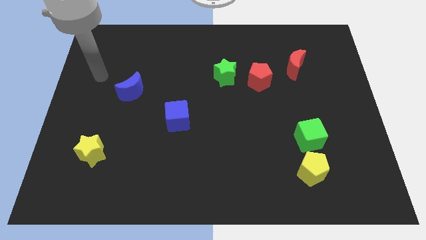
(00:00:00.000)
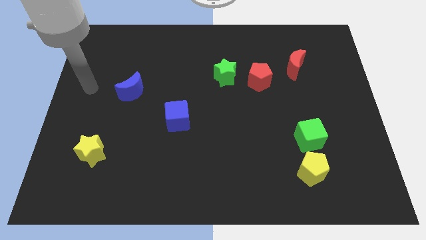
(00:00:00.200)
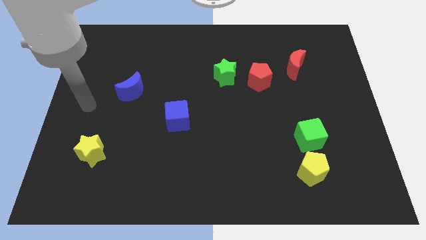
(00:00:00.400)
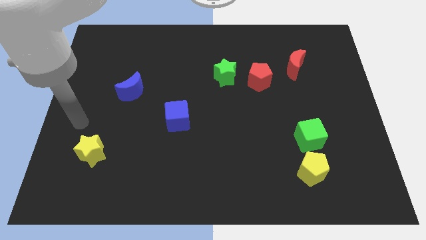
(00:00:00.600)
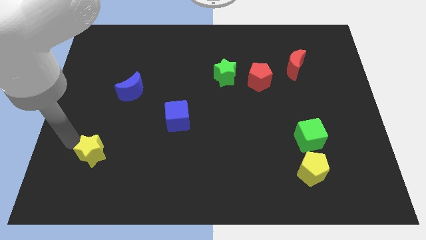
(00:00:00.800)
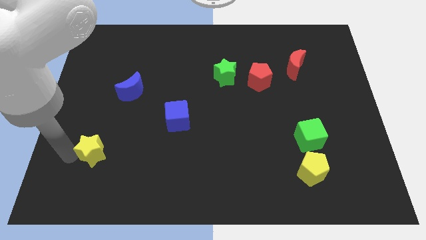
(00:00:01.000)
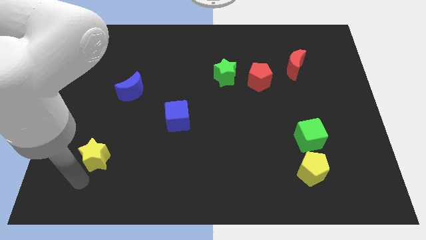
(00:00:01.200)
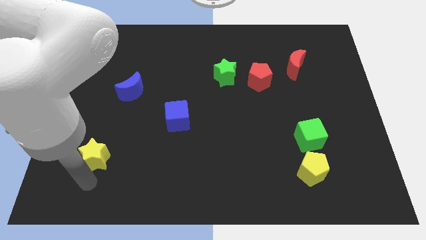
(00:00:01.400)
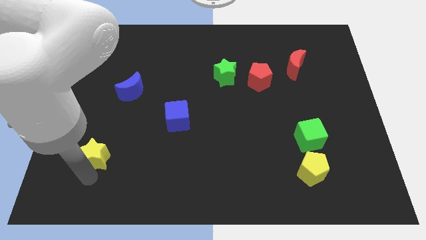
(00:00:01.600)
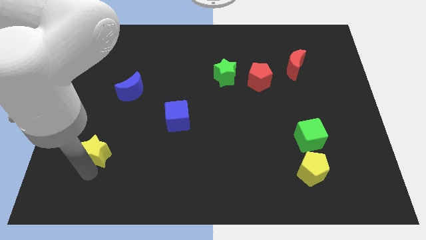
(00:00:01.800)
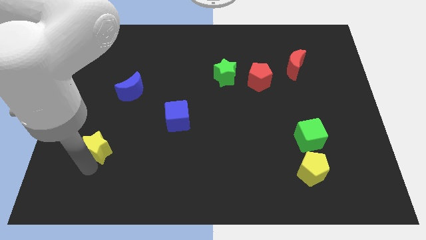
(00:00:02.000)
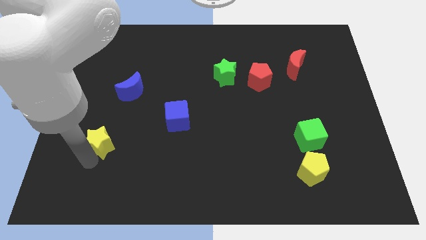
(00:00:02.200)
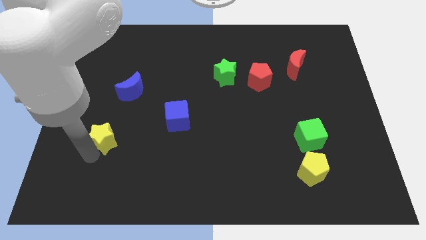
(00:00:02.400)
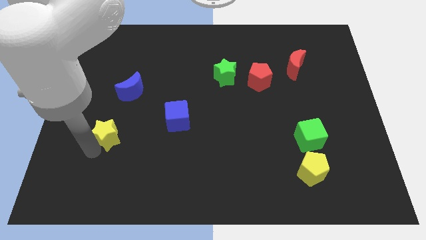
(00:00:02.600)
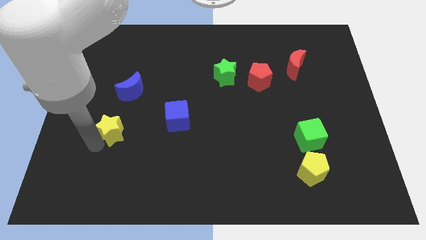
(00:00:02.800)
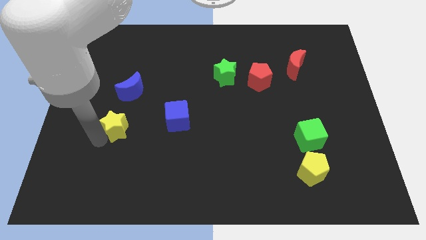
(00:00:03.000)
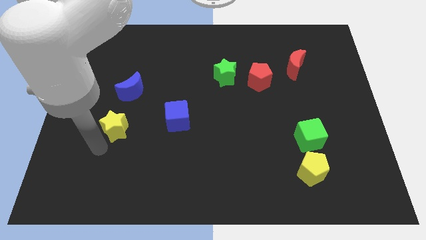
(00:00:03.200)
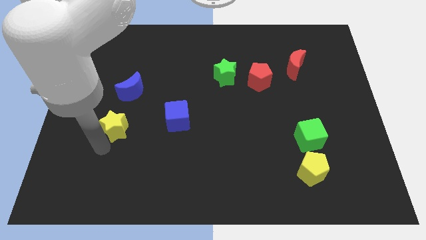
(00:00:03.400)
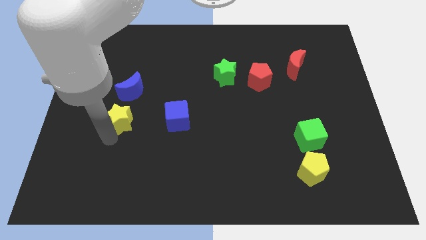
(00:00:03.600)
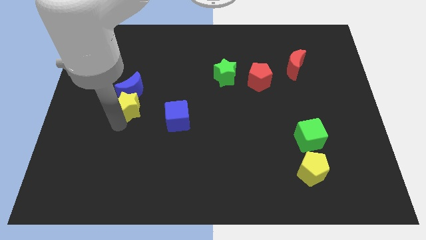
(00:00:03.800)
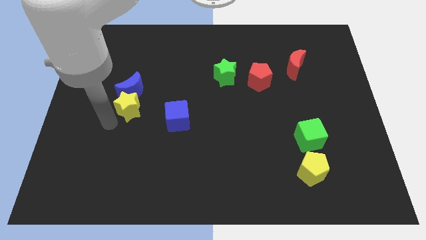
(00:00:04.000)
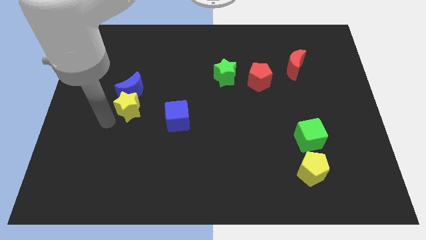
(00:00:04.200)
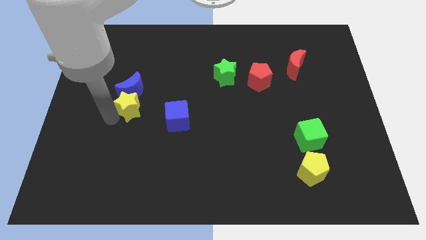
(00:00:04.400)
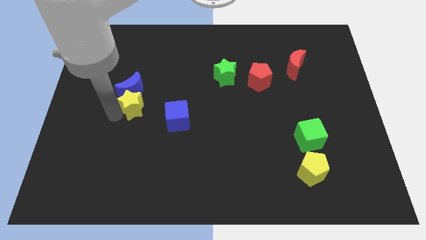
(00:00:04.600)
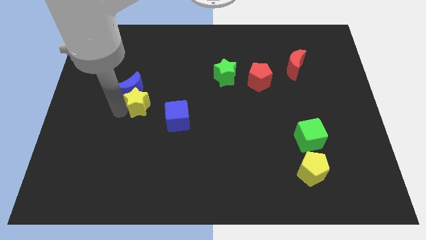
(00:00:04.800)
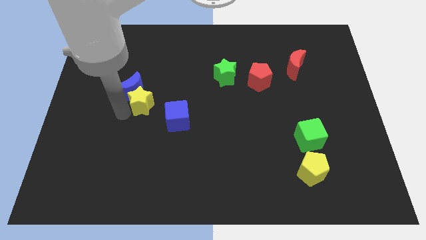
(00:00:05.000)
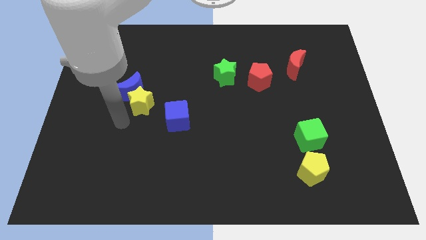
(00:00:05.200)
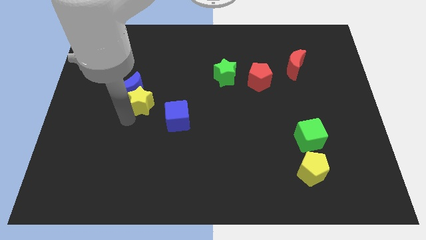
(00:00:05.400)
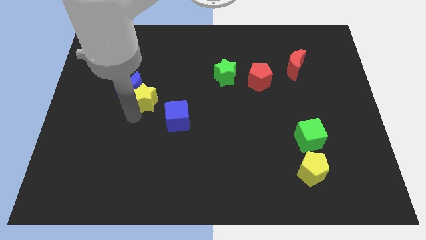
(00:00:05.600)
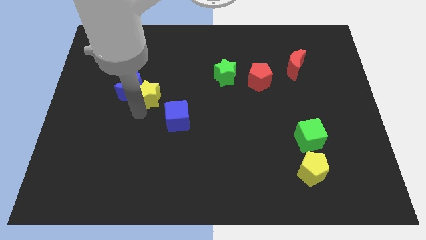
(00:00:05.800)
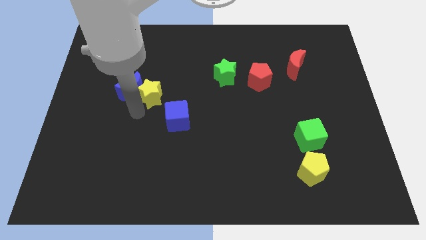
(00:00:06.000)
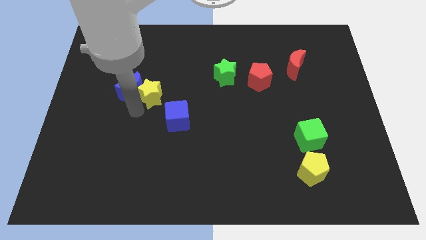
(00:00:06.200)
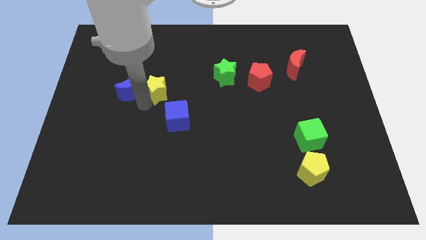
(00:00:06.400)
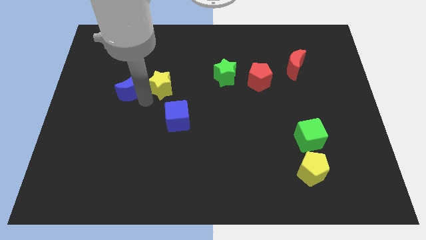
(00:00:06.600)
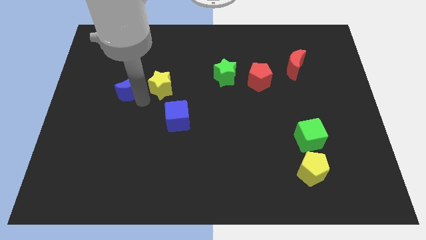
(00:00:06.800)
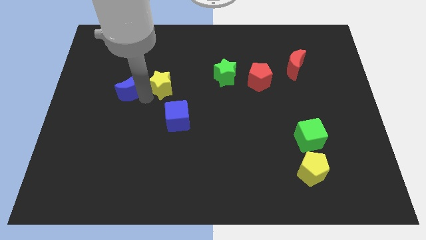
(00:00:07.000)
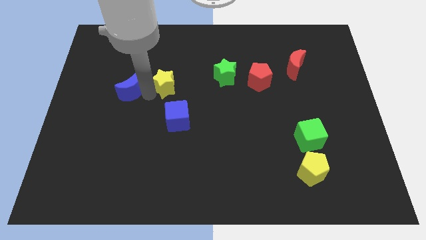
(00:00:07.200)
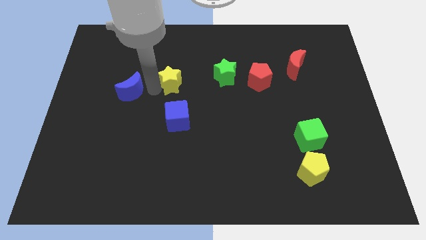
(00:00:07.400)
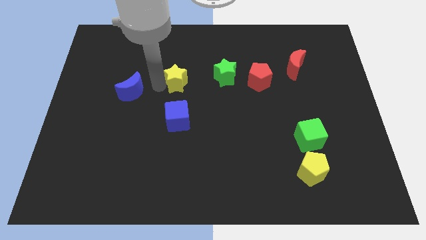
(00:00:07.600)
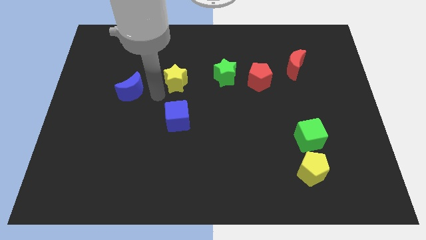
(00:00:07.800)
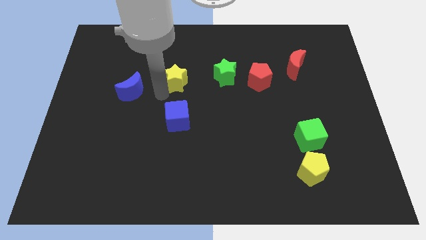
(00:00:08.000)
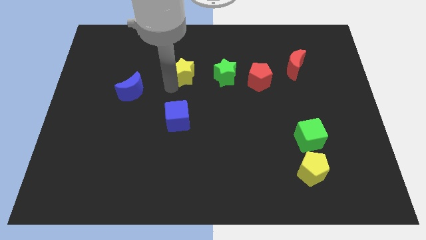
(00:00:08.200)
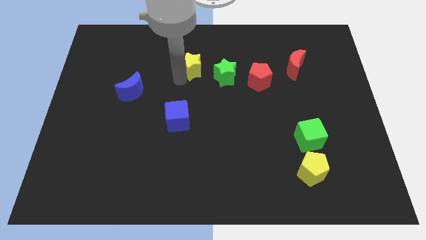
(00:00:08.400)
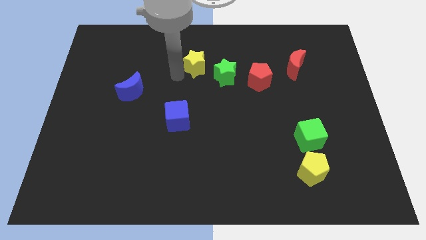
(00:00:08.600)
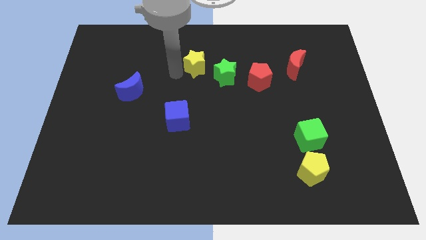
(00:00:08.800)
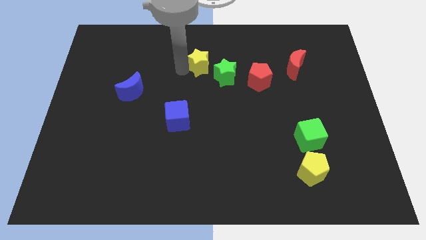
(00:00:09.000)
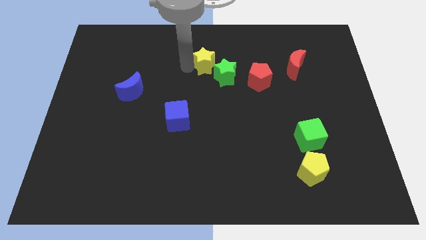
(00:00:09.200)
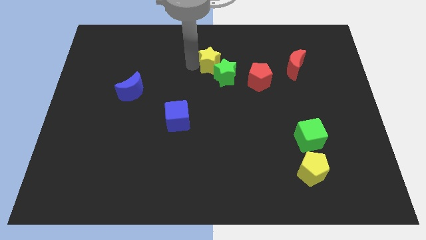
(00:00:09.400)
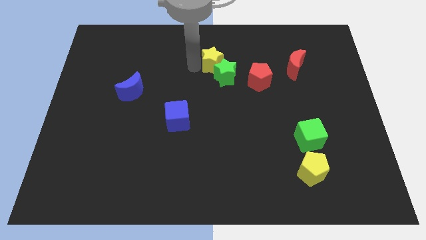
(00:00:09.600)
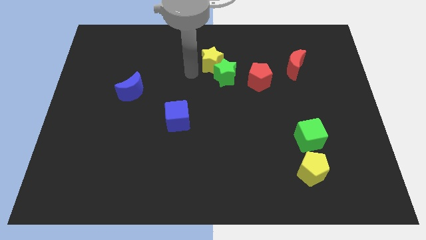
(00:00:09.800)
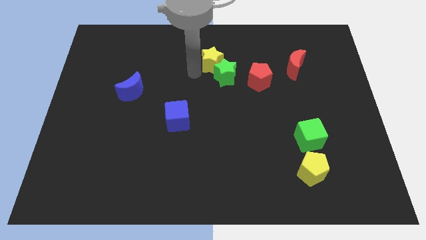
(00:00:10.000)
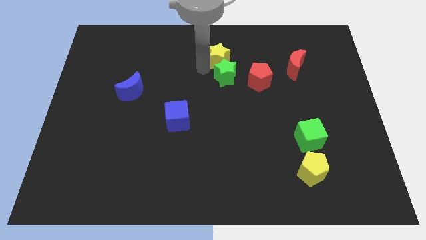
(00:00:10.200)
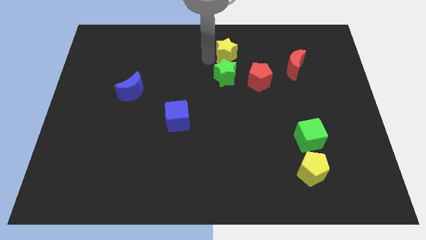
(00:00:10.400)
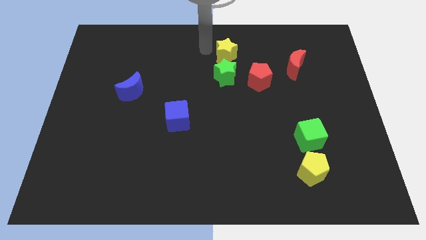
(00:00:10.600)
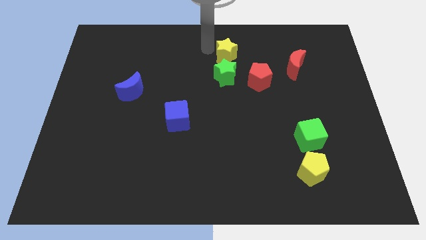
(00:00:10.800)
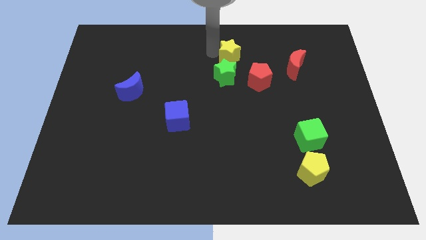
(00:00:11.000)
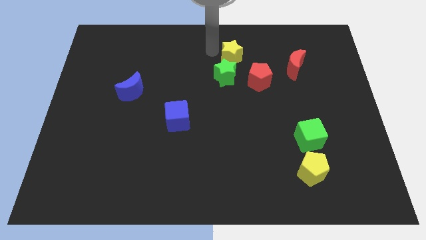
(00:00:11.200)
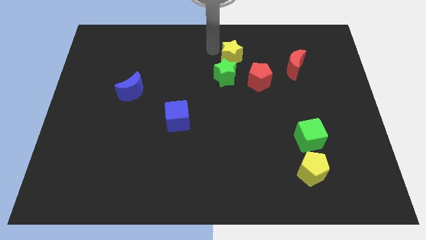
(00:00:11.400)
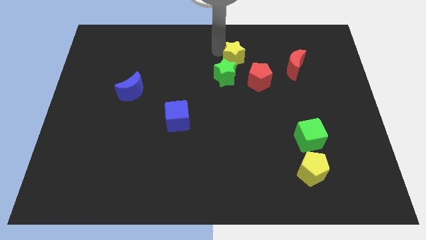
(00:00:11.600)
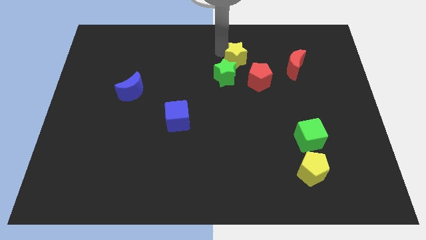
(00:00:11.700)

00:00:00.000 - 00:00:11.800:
push the yellow star just left of the red moon

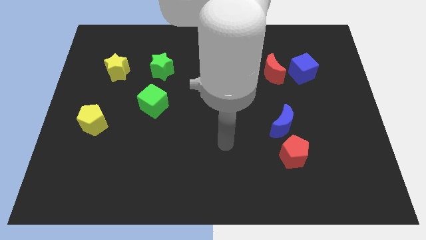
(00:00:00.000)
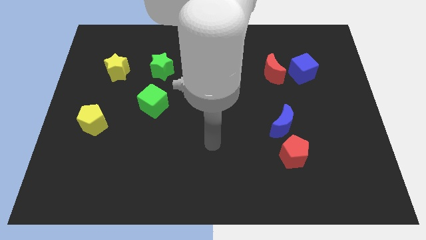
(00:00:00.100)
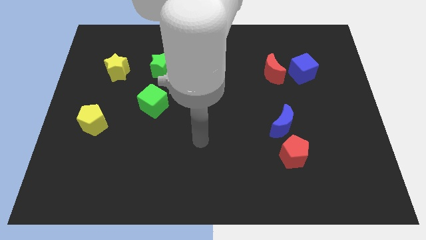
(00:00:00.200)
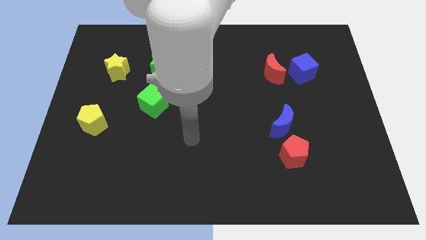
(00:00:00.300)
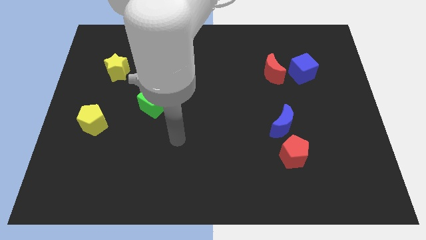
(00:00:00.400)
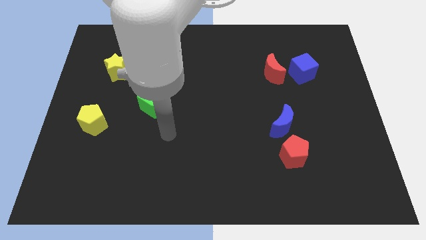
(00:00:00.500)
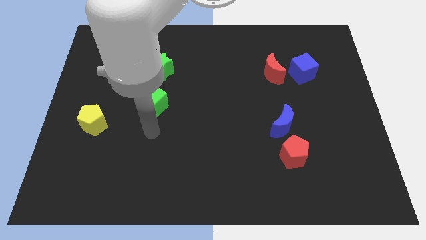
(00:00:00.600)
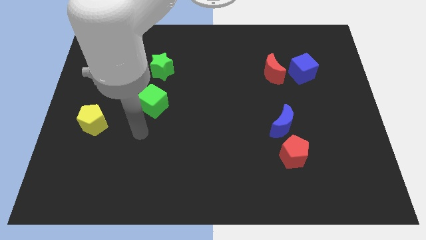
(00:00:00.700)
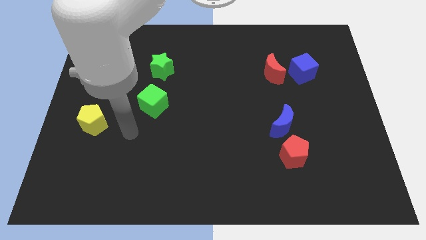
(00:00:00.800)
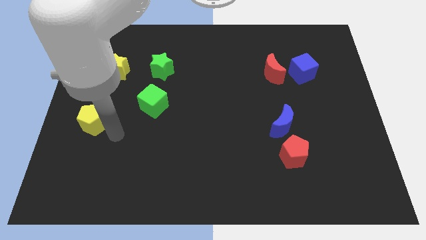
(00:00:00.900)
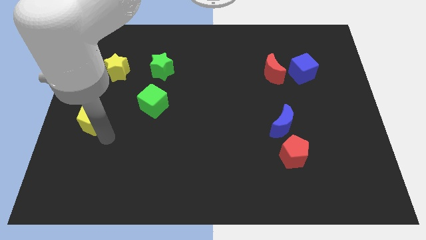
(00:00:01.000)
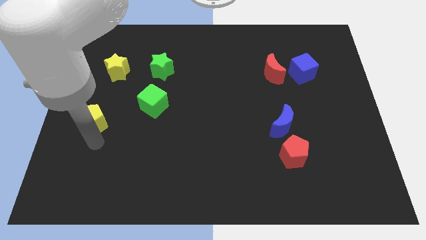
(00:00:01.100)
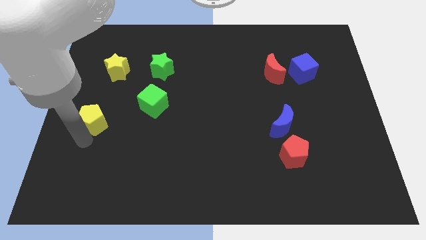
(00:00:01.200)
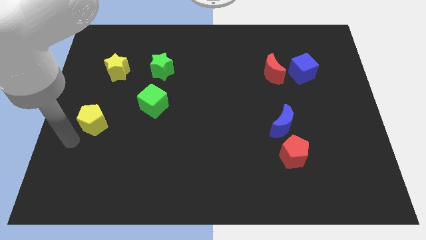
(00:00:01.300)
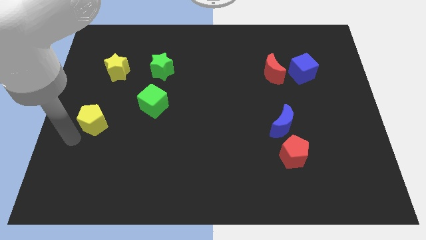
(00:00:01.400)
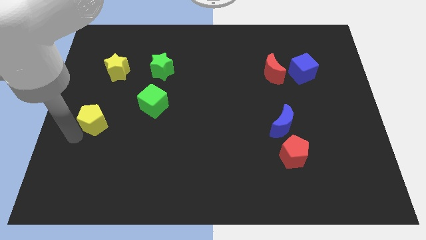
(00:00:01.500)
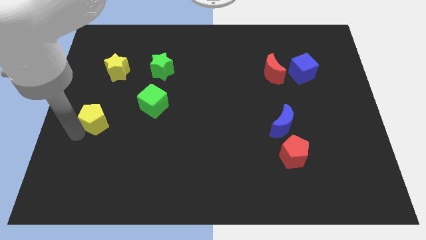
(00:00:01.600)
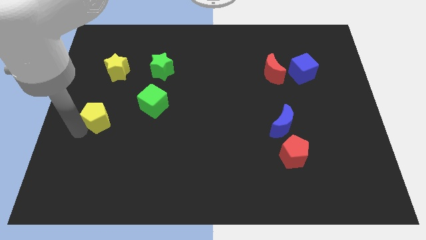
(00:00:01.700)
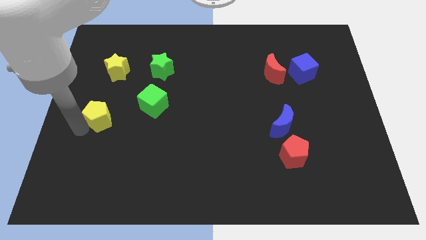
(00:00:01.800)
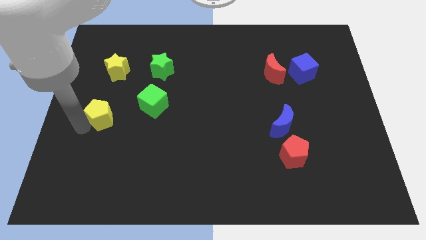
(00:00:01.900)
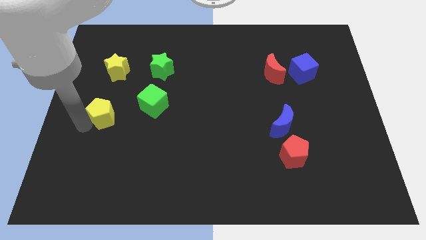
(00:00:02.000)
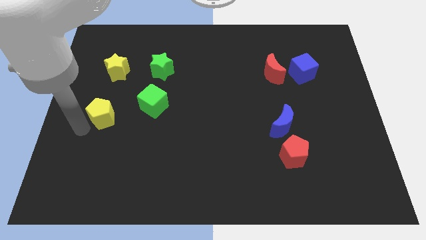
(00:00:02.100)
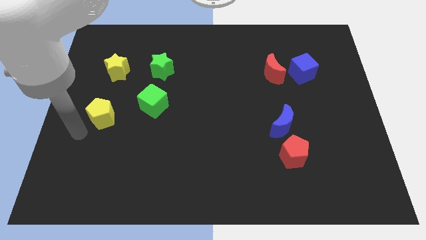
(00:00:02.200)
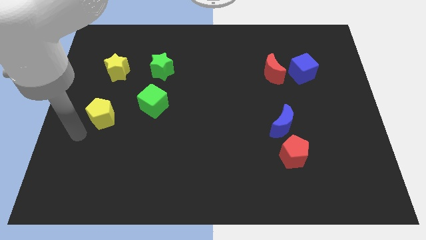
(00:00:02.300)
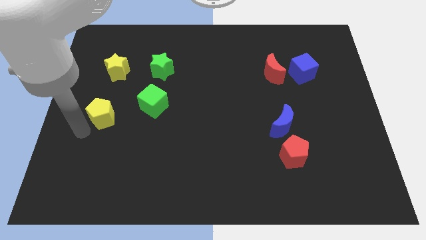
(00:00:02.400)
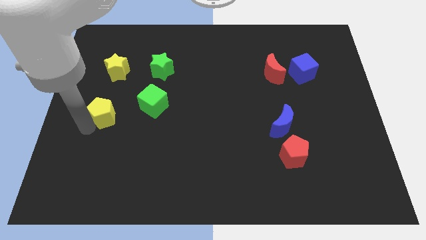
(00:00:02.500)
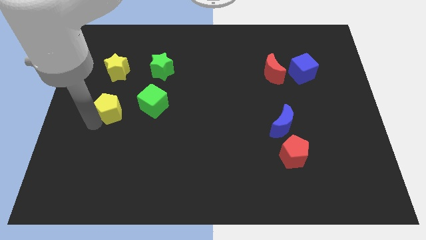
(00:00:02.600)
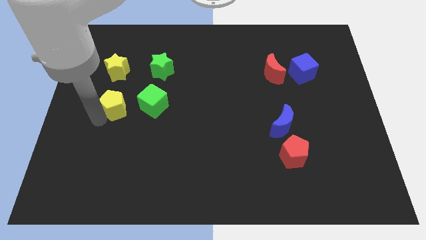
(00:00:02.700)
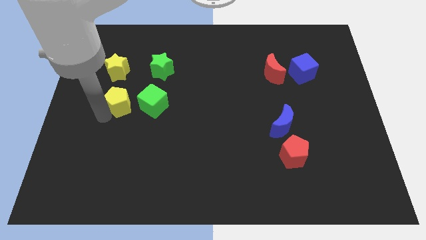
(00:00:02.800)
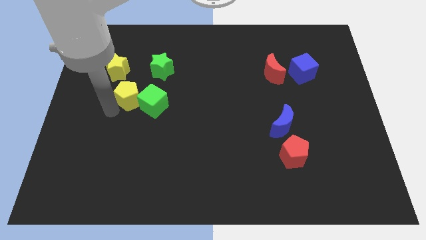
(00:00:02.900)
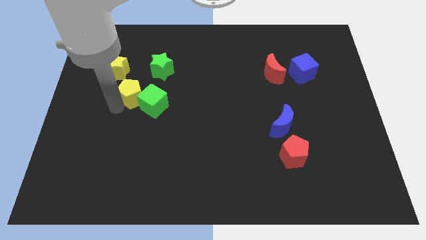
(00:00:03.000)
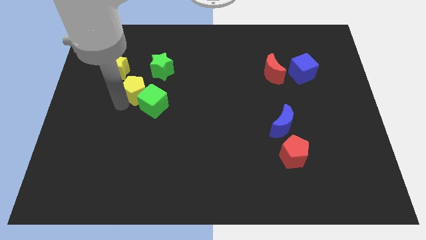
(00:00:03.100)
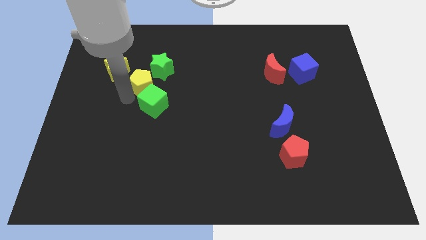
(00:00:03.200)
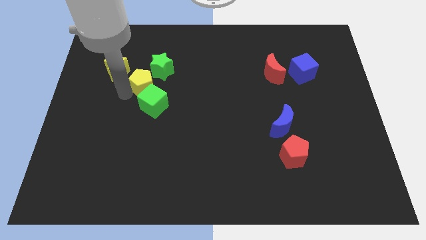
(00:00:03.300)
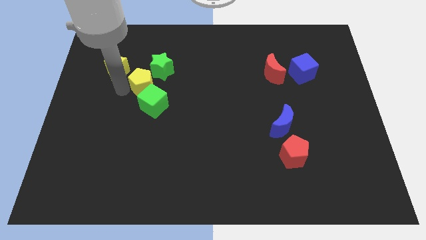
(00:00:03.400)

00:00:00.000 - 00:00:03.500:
slide the yellow pentagon just right of the yellow star
